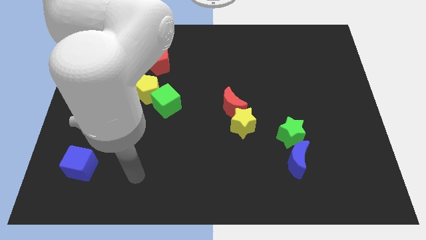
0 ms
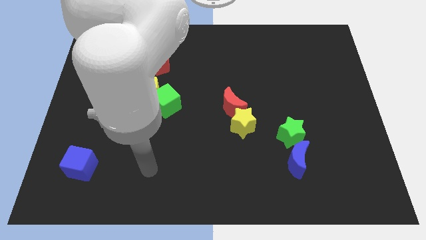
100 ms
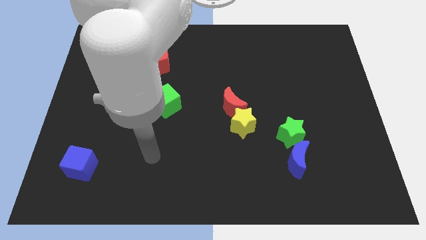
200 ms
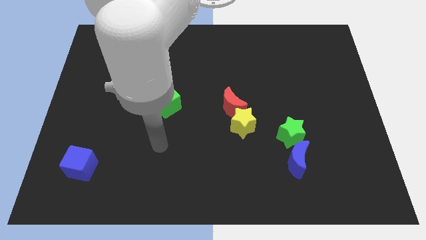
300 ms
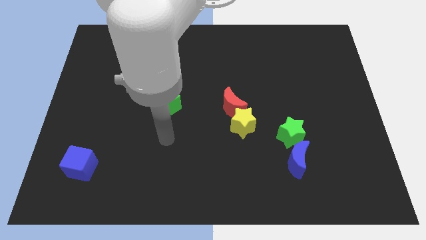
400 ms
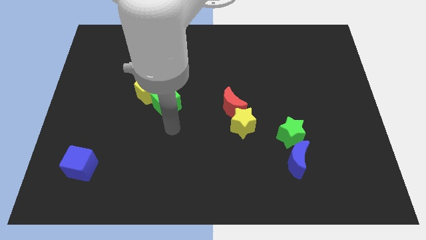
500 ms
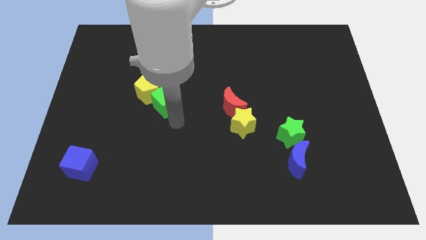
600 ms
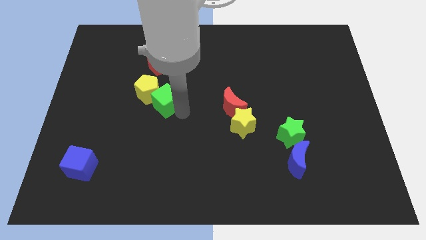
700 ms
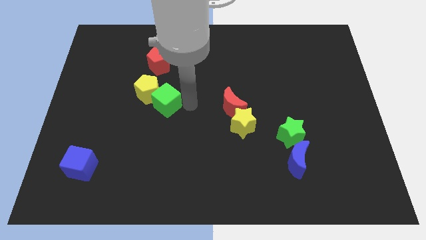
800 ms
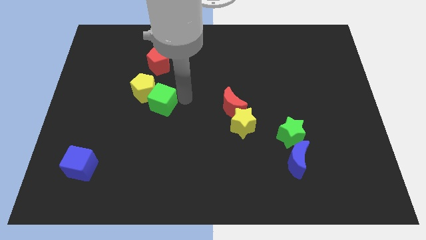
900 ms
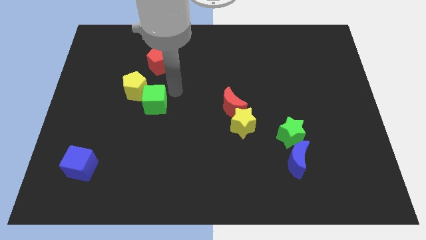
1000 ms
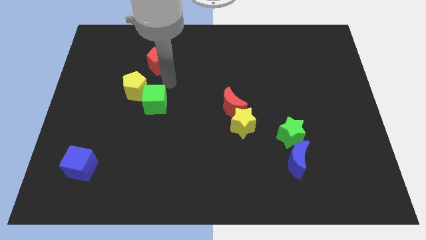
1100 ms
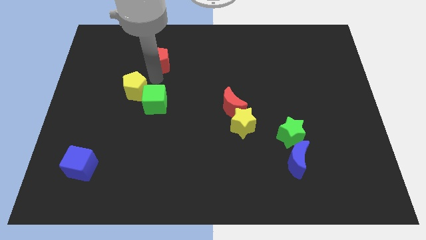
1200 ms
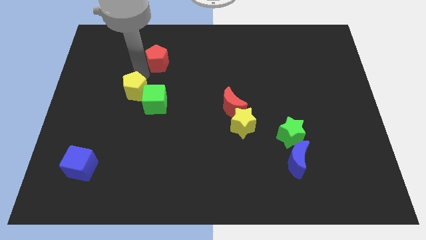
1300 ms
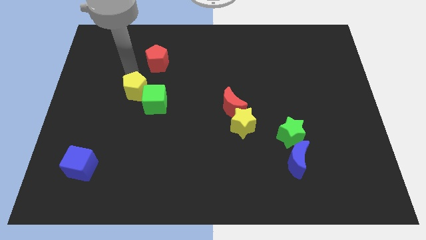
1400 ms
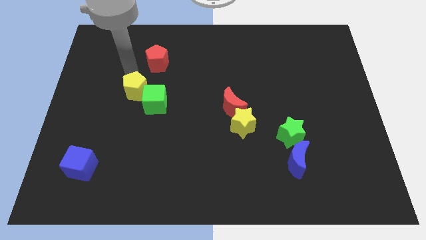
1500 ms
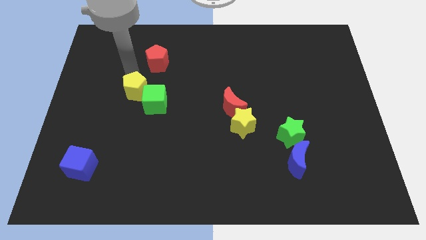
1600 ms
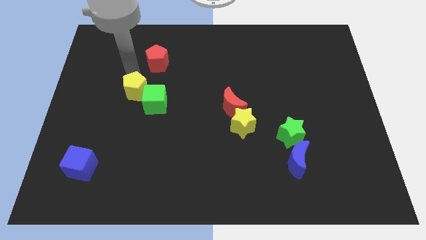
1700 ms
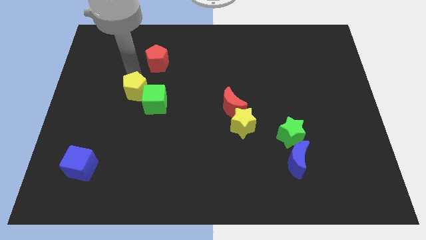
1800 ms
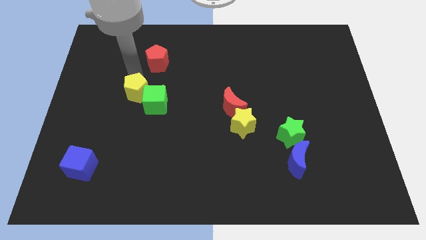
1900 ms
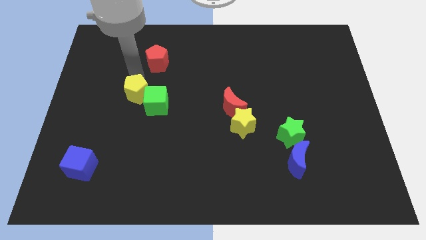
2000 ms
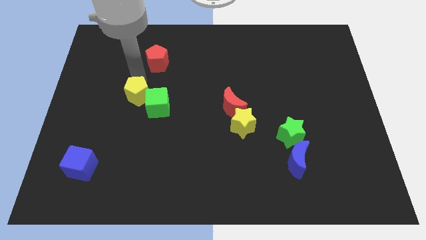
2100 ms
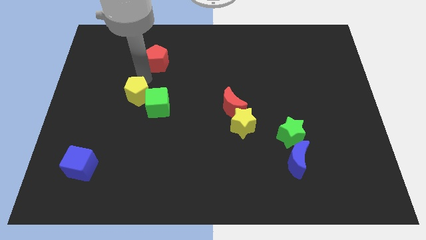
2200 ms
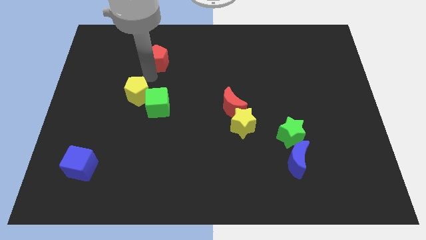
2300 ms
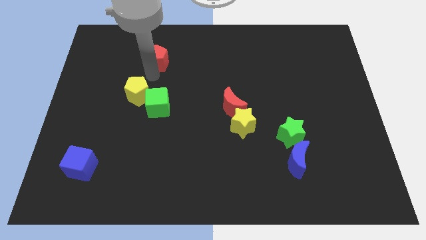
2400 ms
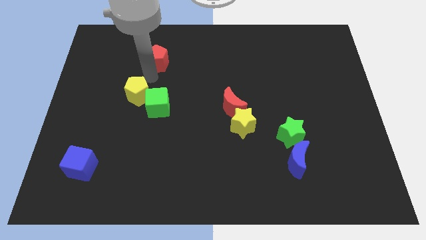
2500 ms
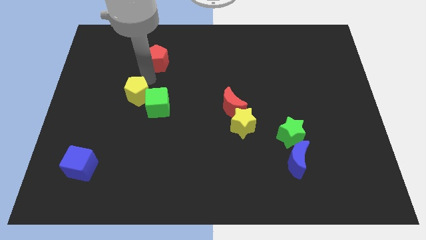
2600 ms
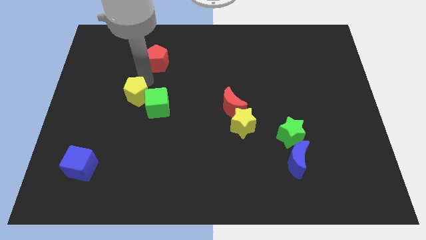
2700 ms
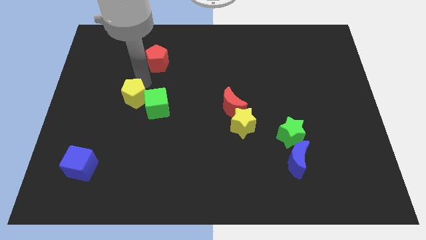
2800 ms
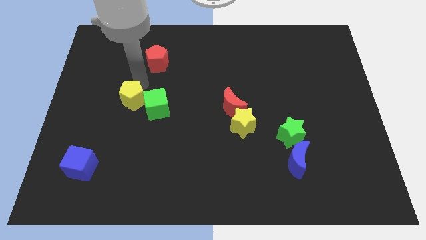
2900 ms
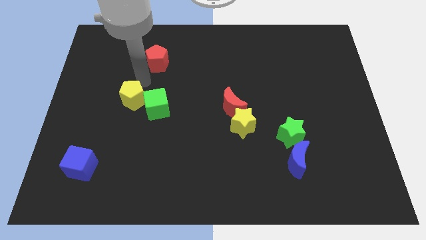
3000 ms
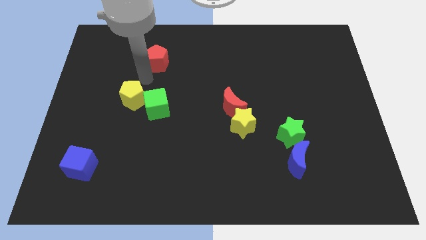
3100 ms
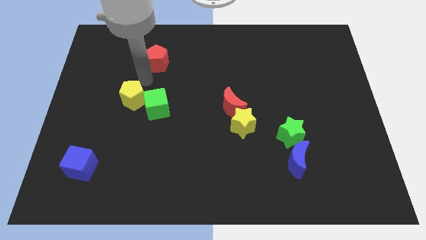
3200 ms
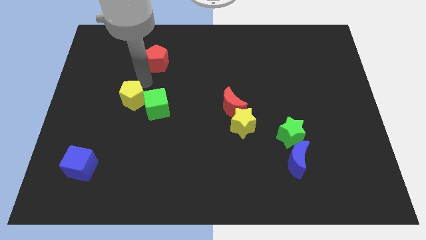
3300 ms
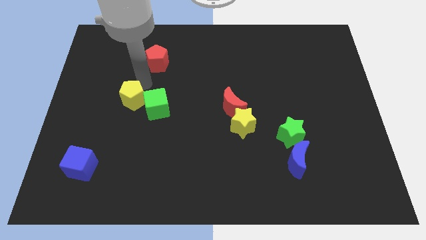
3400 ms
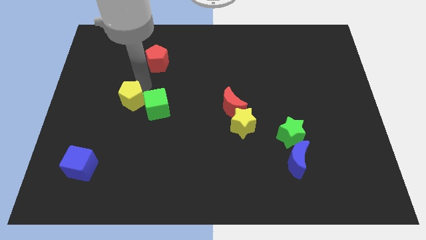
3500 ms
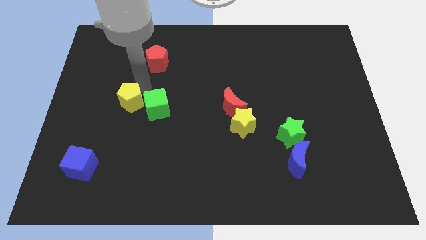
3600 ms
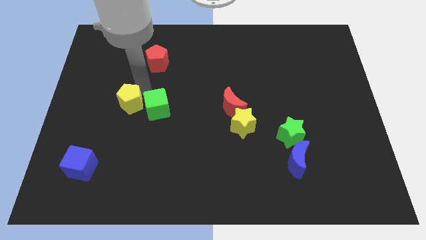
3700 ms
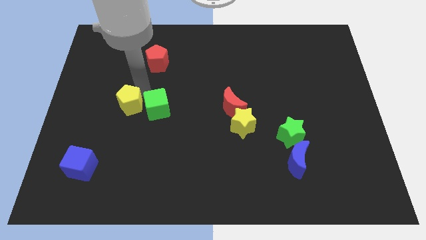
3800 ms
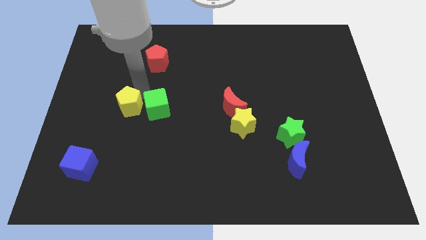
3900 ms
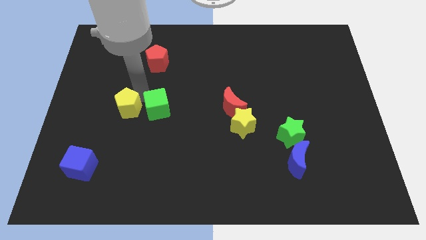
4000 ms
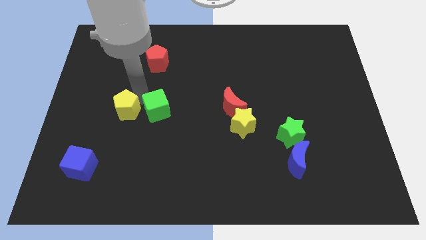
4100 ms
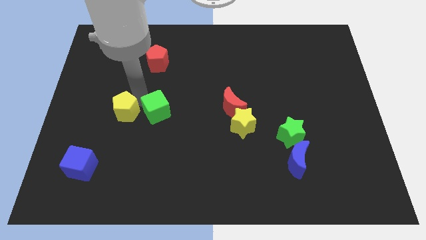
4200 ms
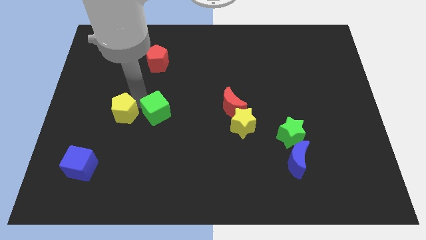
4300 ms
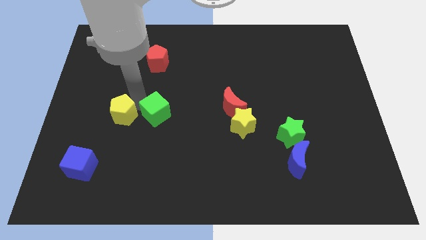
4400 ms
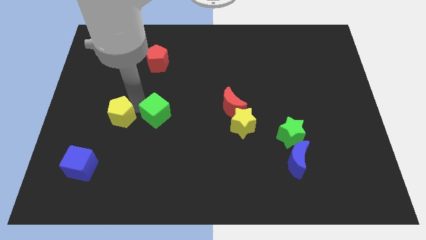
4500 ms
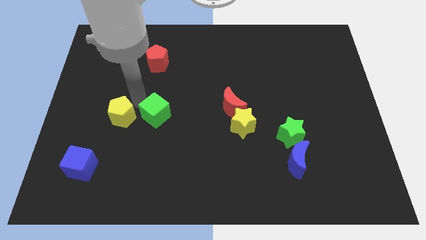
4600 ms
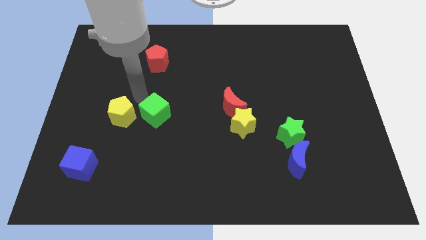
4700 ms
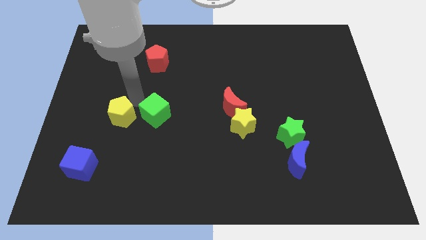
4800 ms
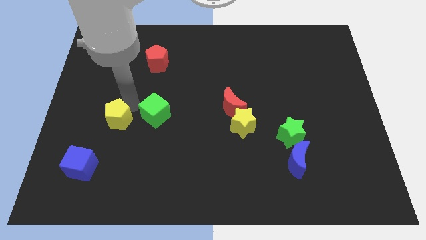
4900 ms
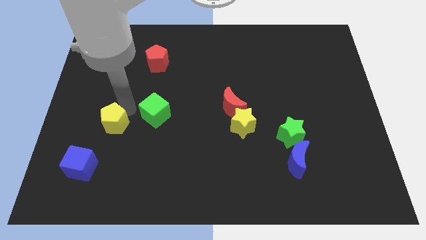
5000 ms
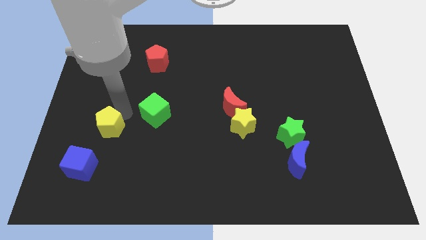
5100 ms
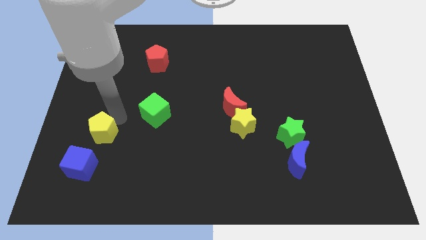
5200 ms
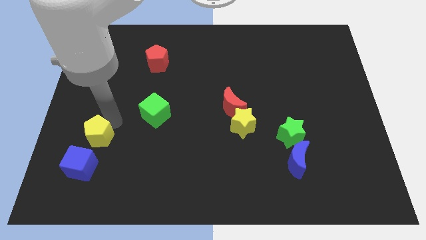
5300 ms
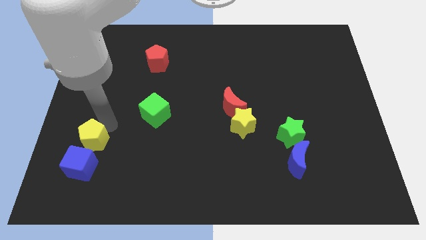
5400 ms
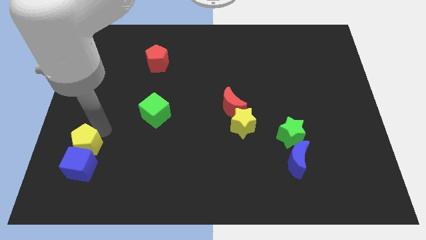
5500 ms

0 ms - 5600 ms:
put the yellow pentagon close to the blue cube

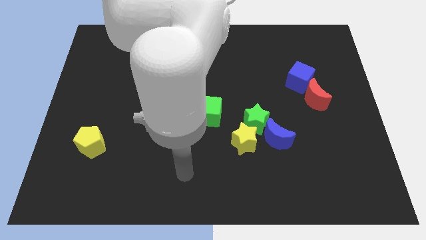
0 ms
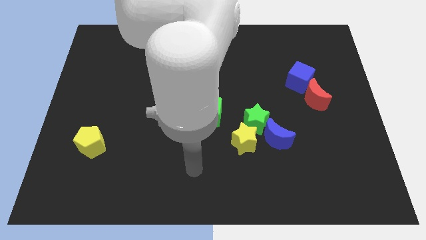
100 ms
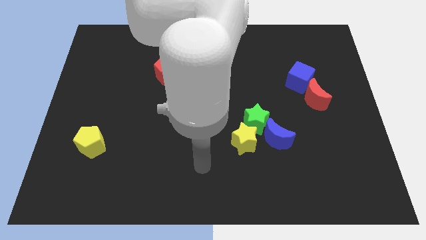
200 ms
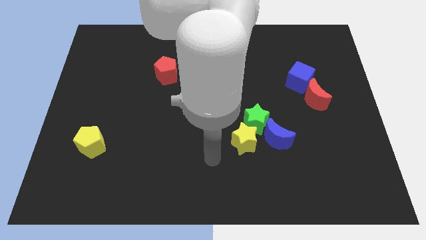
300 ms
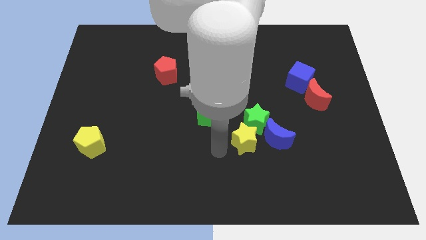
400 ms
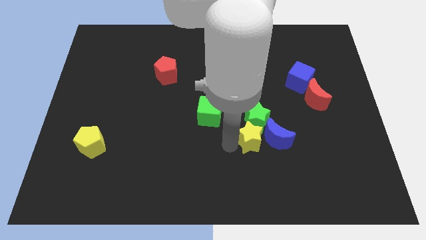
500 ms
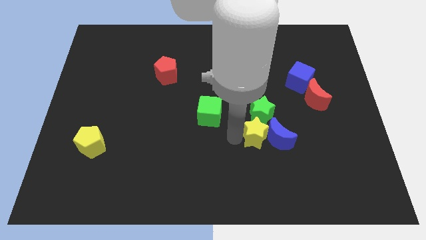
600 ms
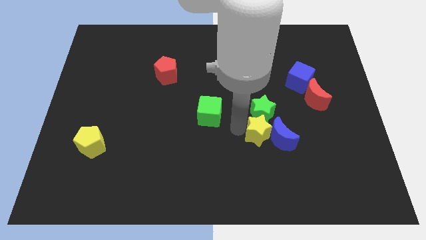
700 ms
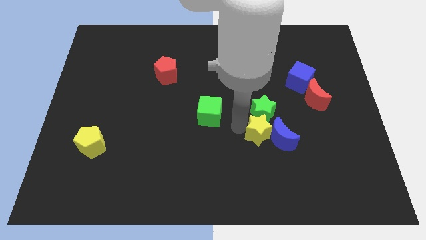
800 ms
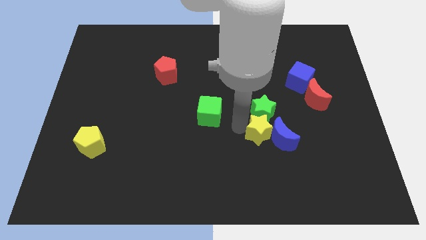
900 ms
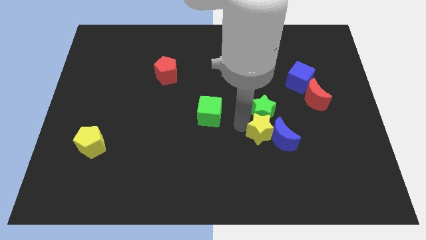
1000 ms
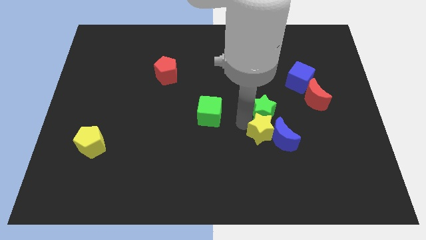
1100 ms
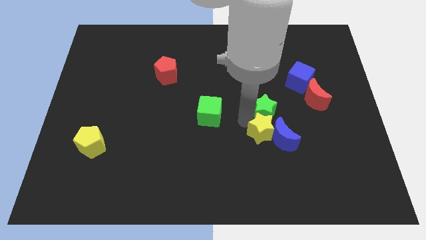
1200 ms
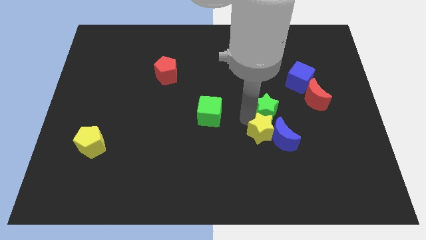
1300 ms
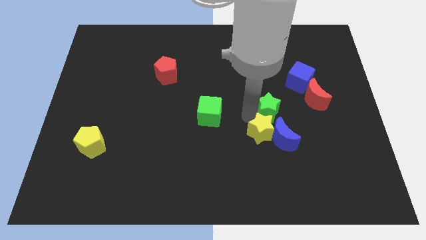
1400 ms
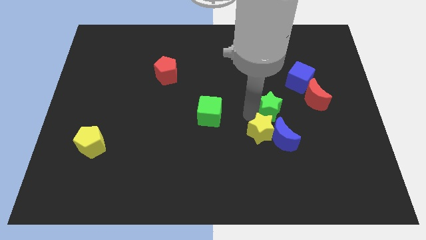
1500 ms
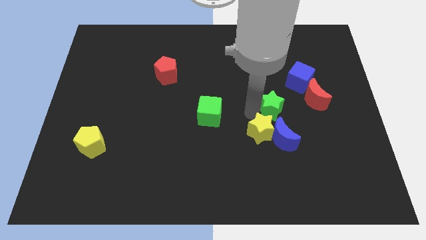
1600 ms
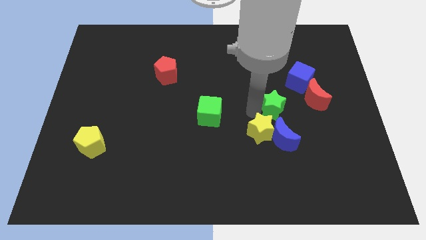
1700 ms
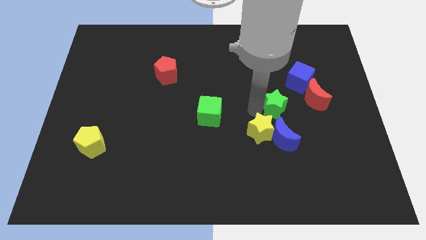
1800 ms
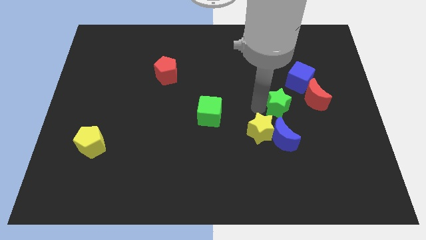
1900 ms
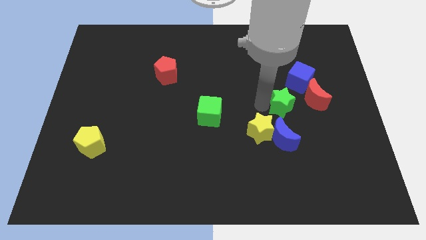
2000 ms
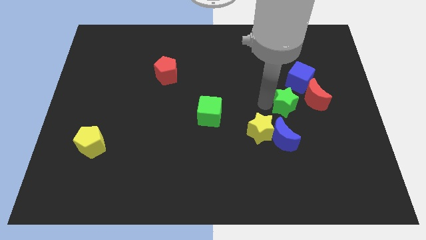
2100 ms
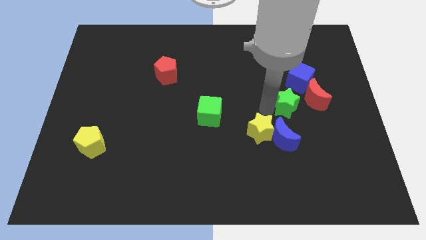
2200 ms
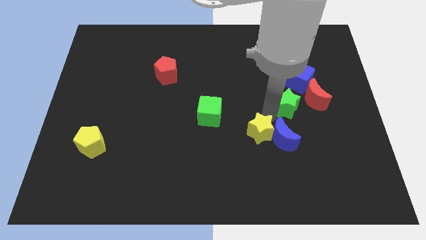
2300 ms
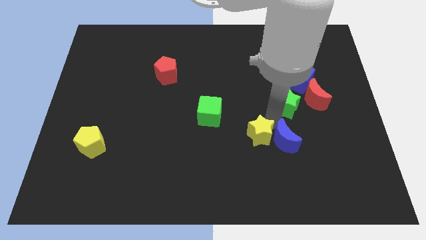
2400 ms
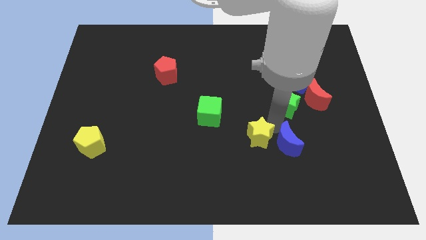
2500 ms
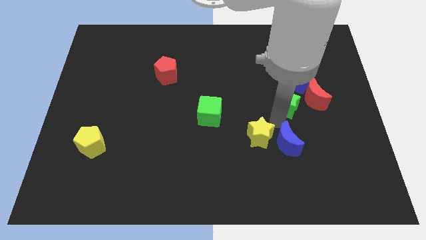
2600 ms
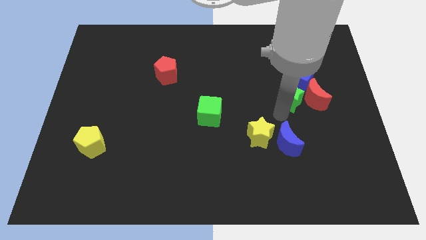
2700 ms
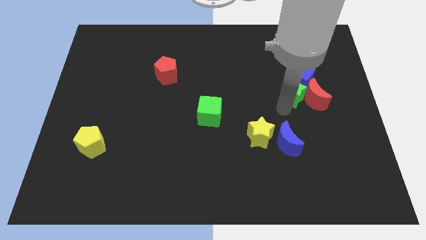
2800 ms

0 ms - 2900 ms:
put the green star towards the blue cube
